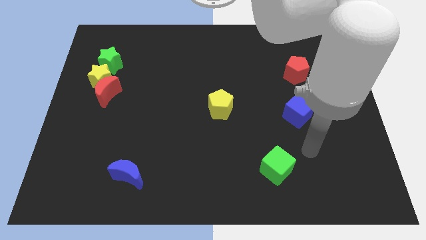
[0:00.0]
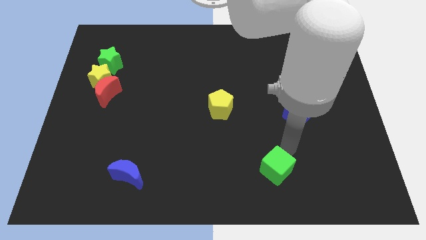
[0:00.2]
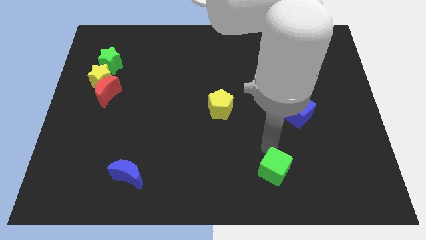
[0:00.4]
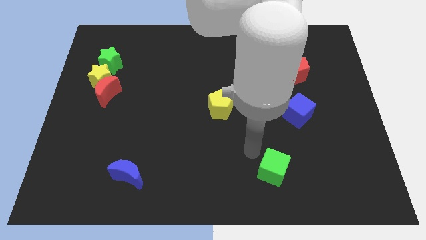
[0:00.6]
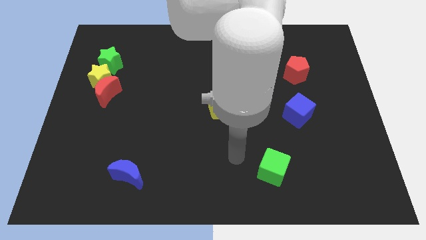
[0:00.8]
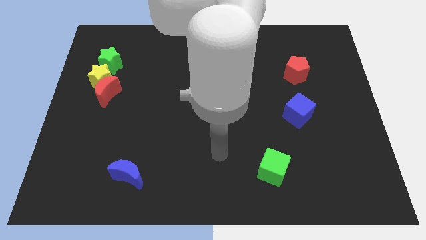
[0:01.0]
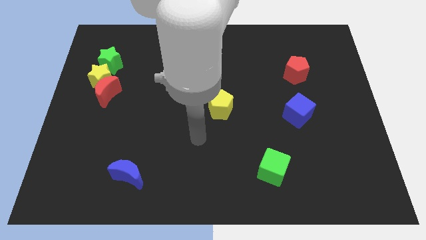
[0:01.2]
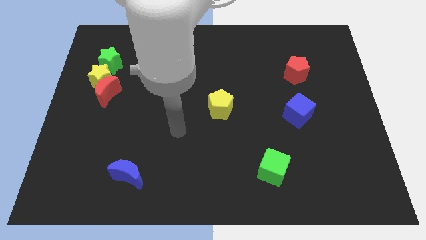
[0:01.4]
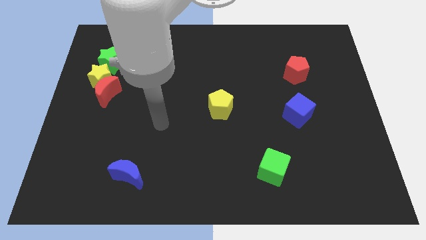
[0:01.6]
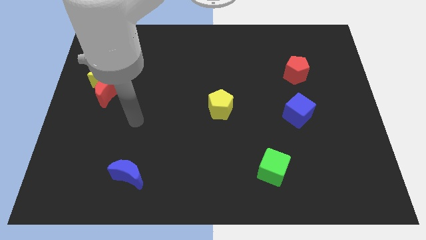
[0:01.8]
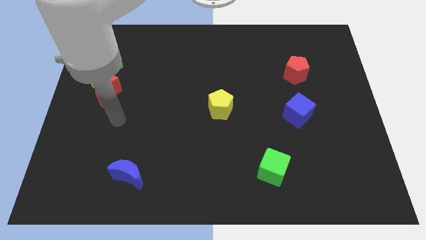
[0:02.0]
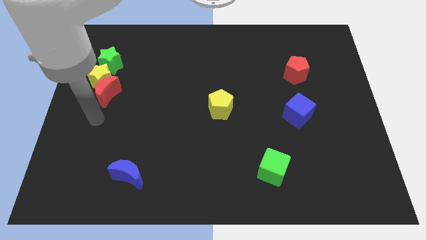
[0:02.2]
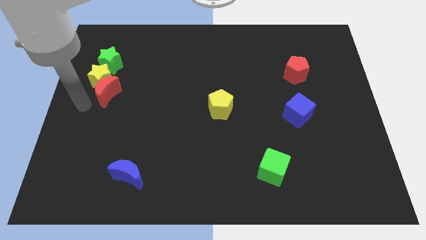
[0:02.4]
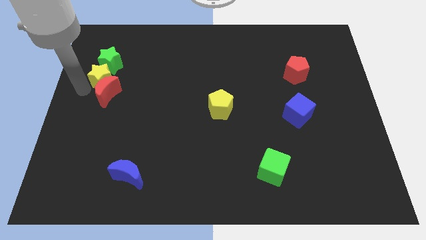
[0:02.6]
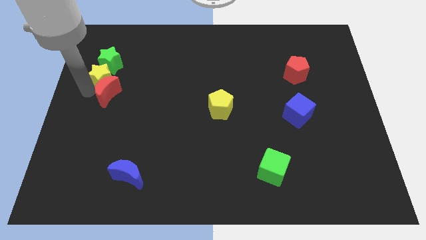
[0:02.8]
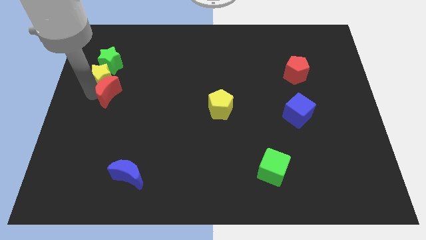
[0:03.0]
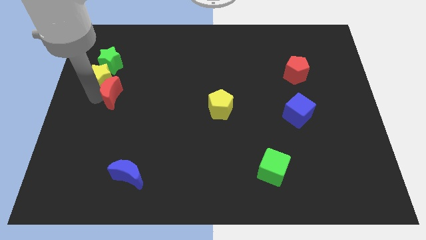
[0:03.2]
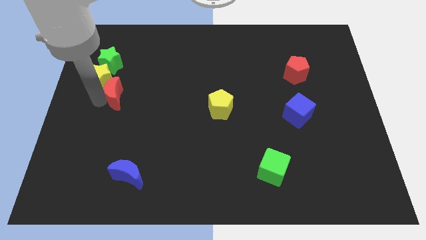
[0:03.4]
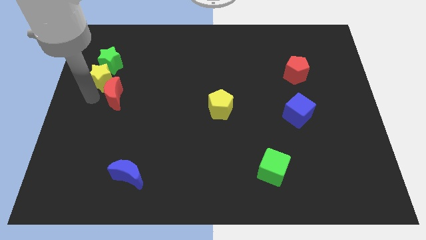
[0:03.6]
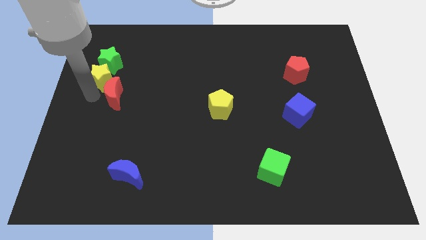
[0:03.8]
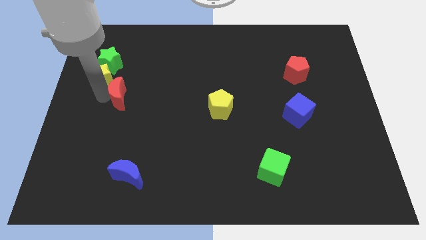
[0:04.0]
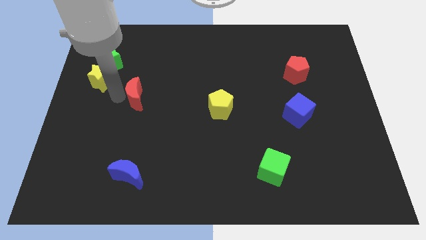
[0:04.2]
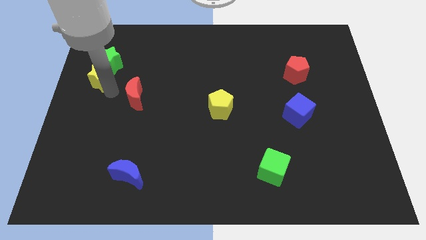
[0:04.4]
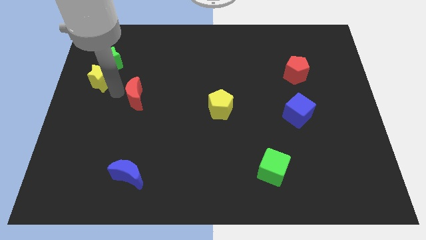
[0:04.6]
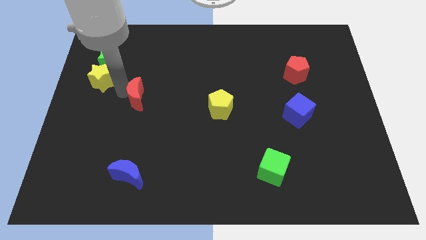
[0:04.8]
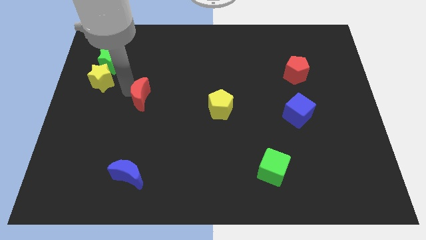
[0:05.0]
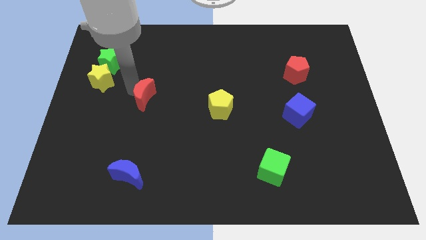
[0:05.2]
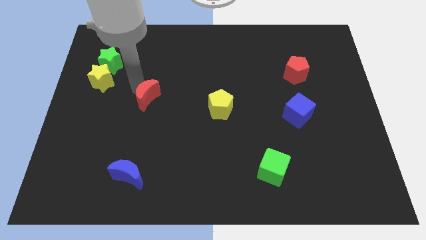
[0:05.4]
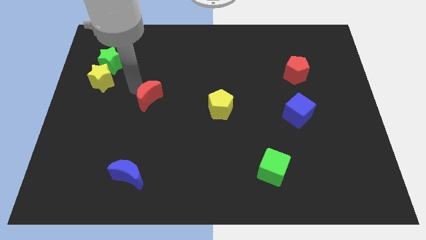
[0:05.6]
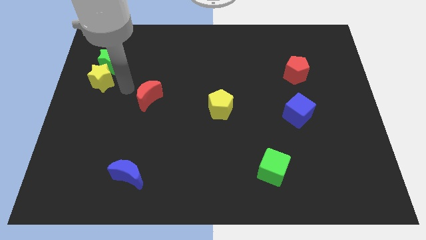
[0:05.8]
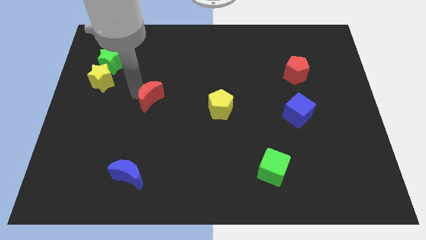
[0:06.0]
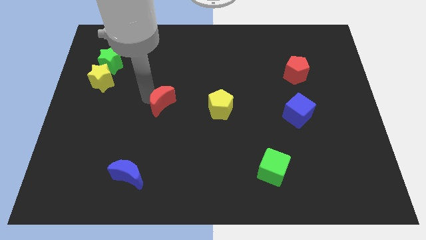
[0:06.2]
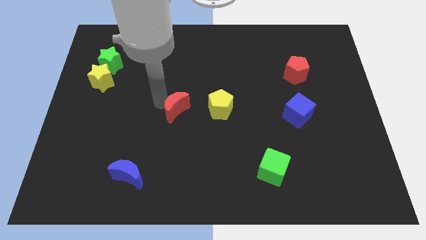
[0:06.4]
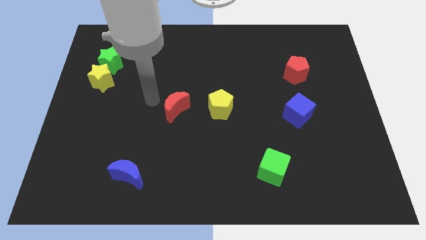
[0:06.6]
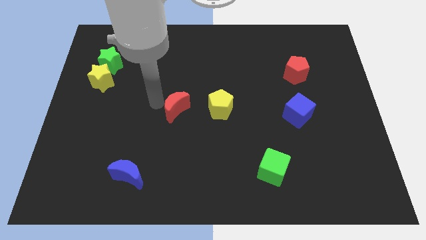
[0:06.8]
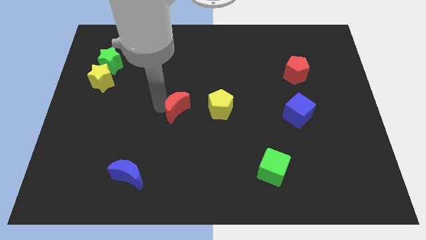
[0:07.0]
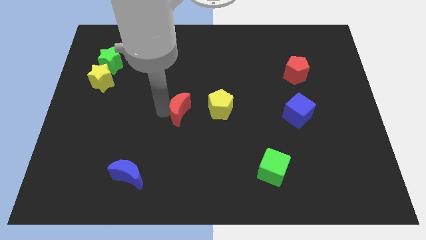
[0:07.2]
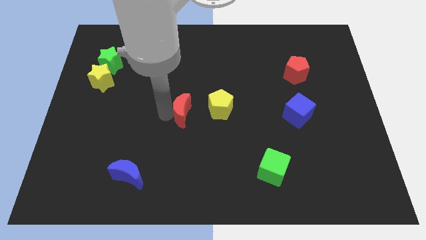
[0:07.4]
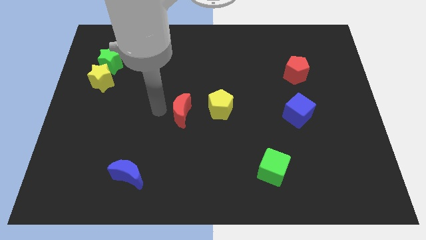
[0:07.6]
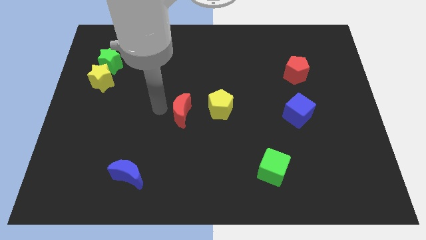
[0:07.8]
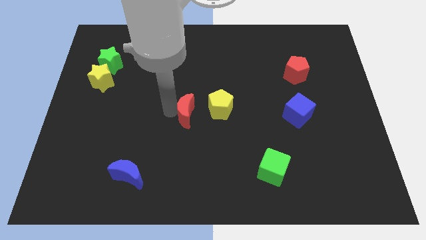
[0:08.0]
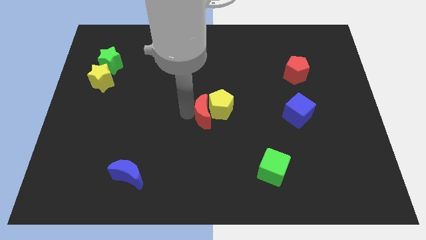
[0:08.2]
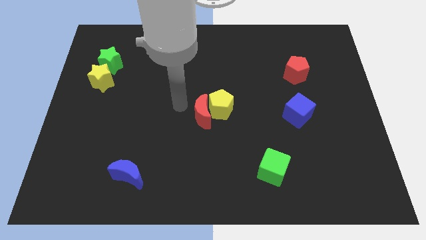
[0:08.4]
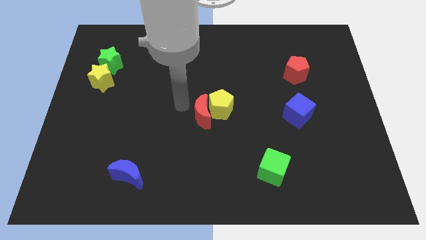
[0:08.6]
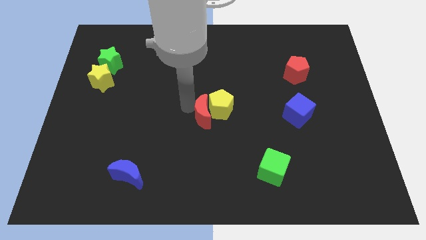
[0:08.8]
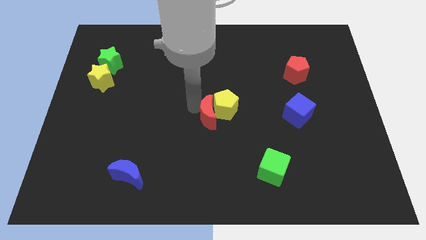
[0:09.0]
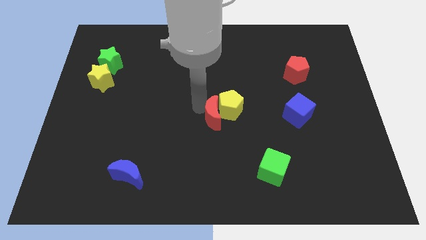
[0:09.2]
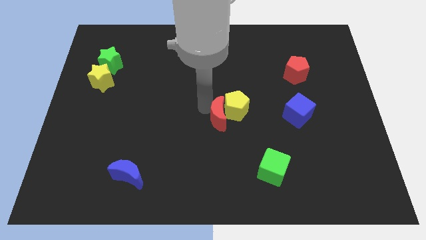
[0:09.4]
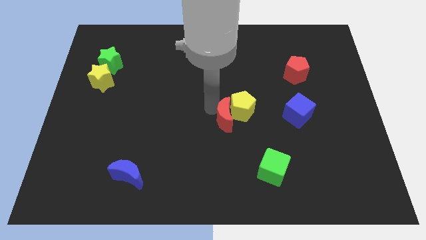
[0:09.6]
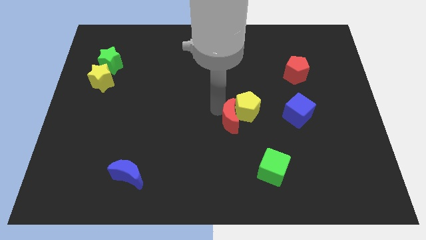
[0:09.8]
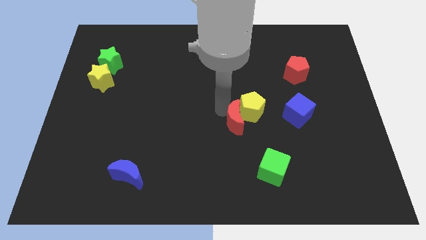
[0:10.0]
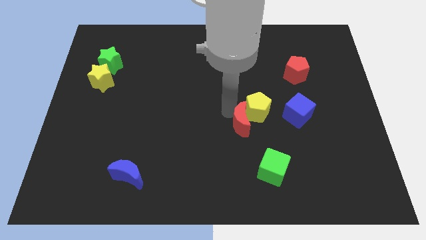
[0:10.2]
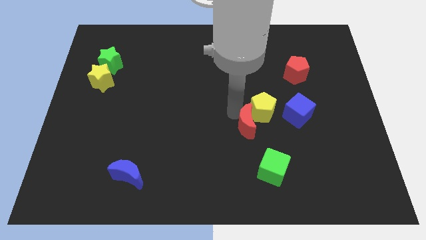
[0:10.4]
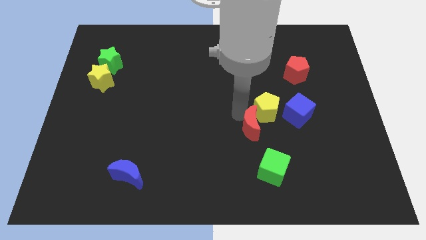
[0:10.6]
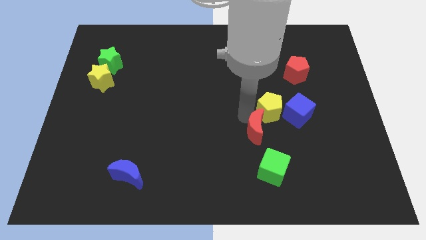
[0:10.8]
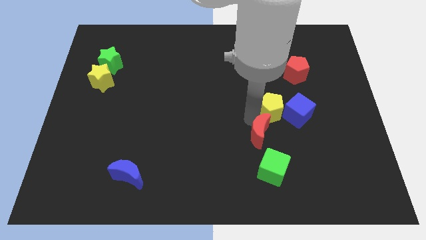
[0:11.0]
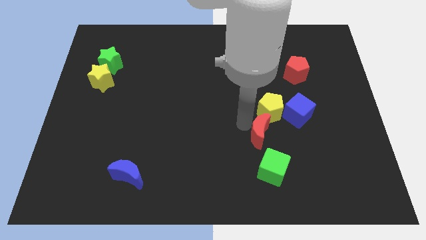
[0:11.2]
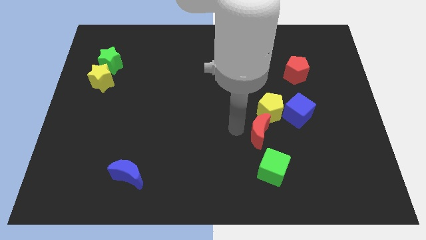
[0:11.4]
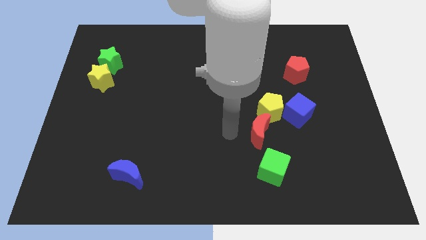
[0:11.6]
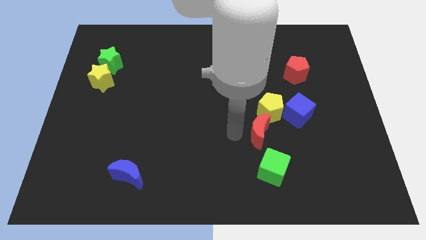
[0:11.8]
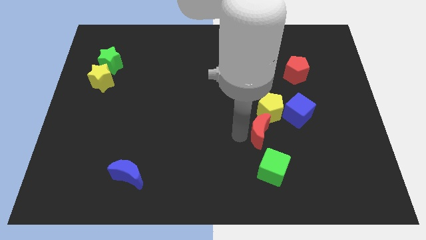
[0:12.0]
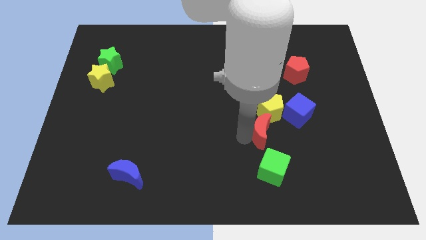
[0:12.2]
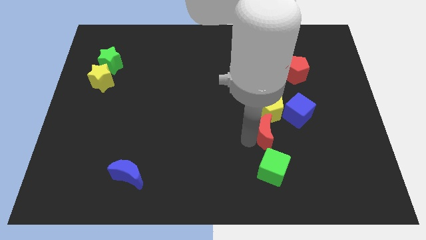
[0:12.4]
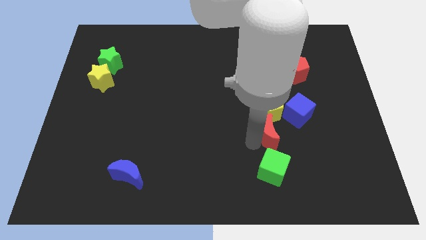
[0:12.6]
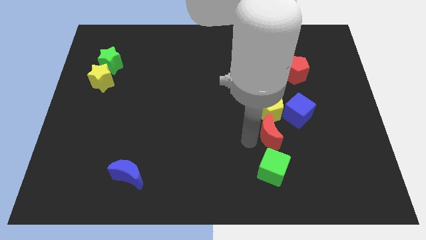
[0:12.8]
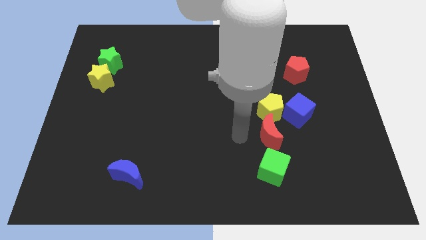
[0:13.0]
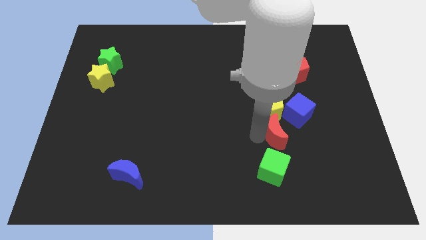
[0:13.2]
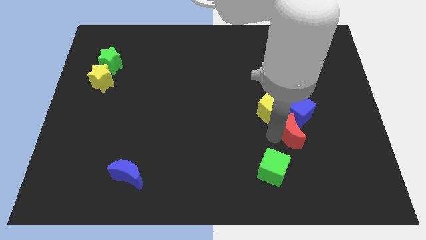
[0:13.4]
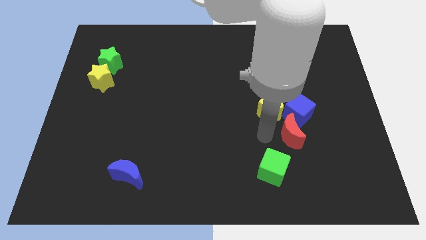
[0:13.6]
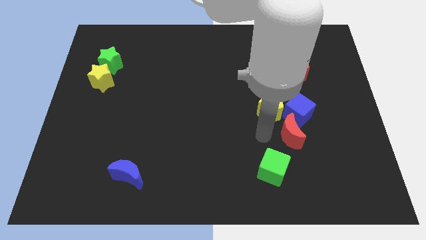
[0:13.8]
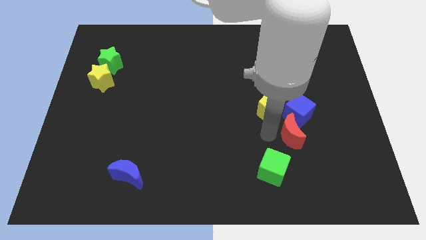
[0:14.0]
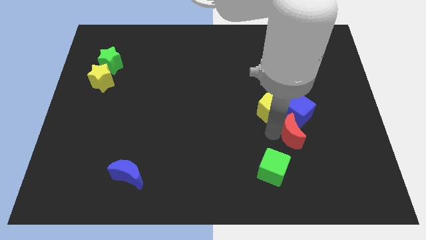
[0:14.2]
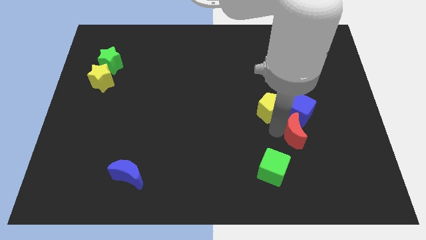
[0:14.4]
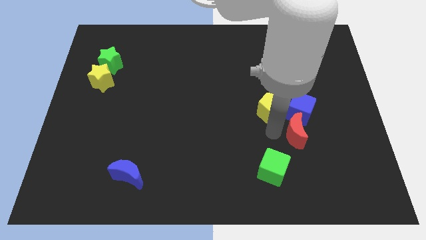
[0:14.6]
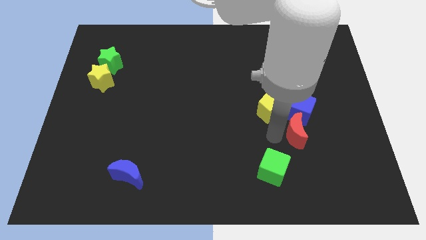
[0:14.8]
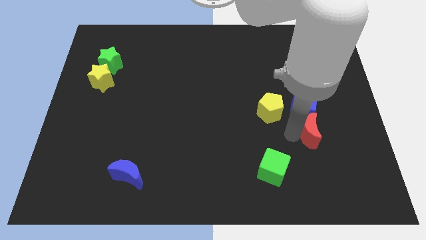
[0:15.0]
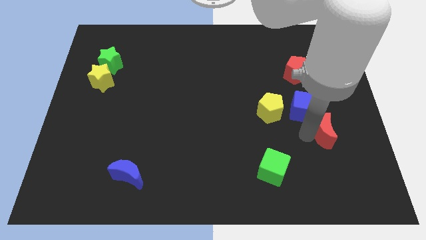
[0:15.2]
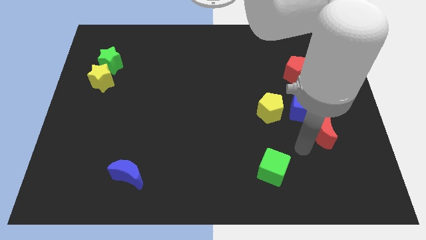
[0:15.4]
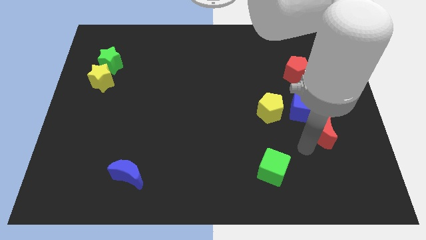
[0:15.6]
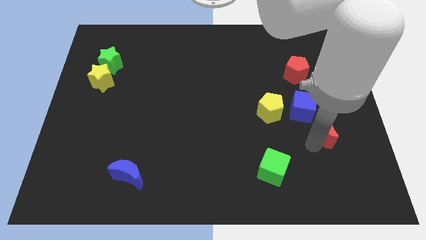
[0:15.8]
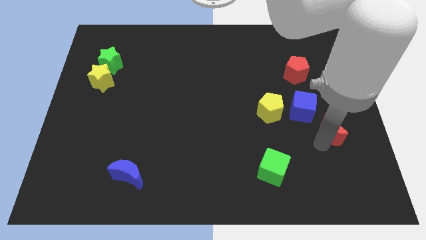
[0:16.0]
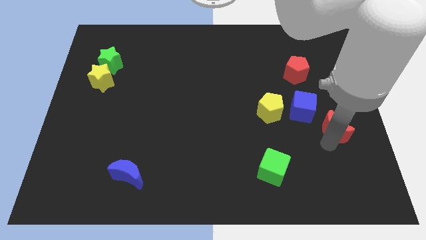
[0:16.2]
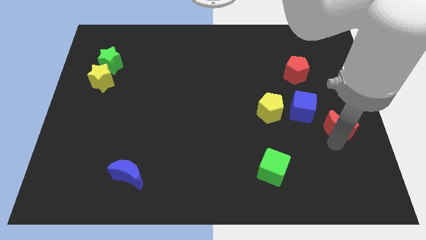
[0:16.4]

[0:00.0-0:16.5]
push the red moon to the right side of the board
